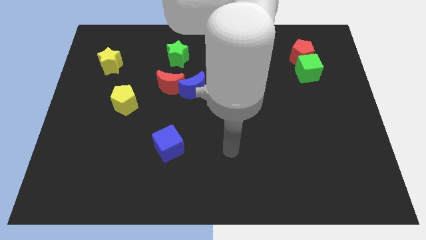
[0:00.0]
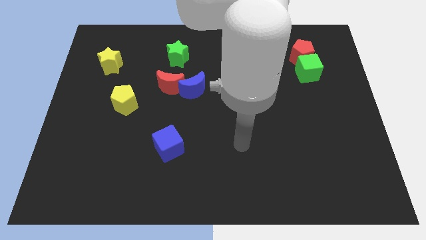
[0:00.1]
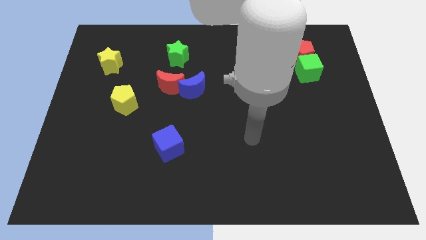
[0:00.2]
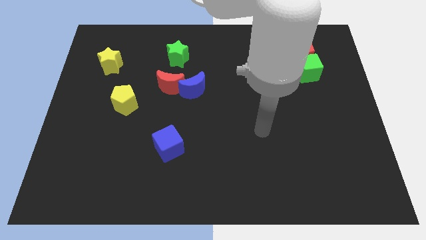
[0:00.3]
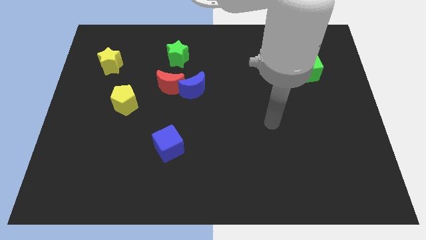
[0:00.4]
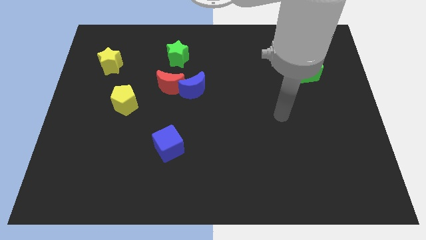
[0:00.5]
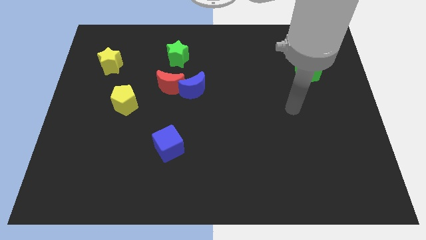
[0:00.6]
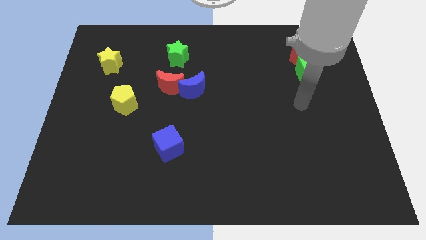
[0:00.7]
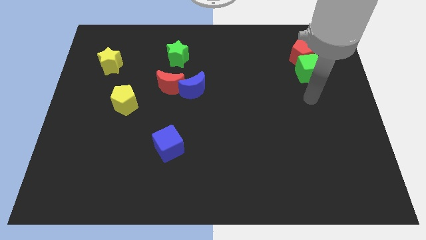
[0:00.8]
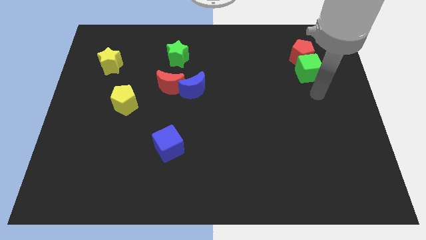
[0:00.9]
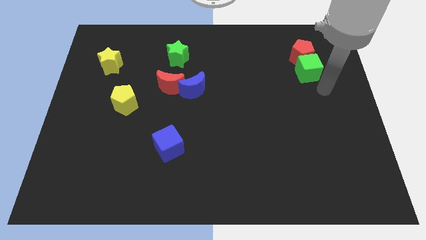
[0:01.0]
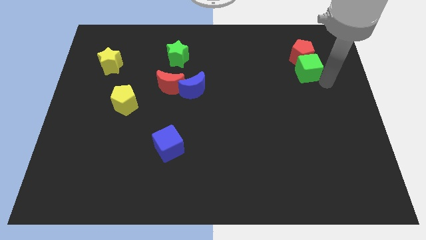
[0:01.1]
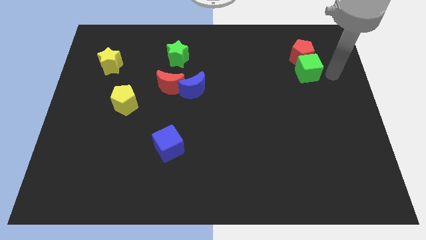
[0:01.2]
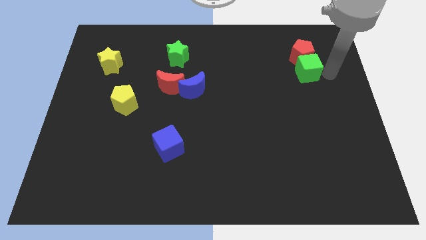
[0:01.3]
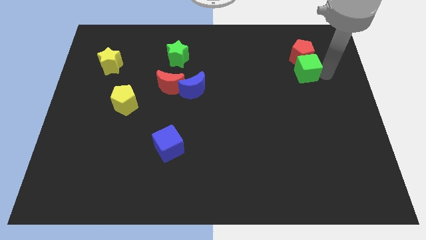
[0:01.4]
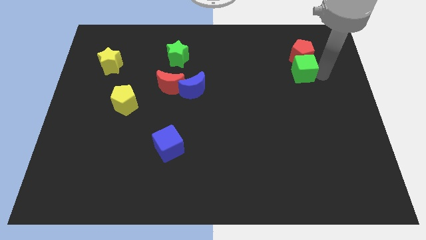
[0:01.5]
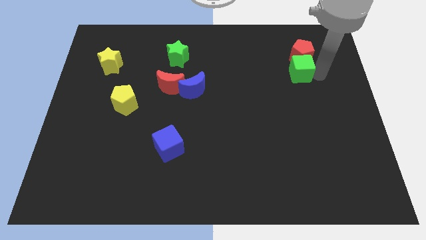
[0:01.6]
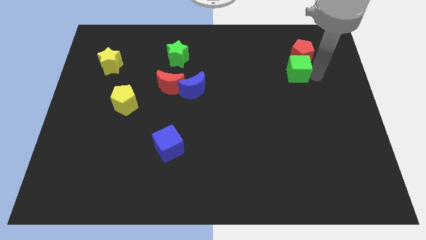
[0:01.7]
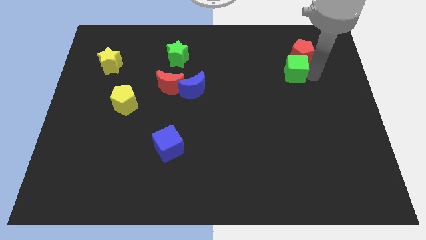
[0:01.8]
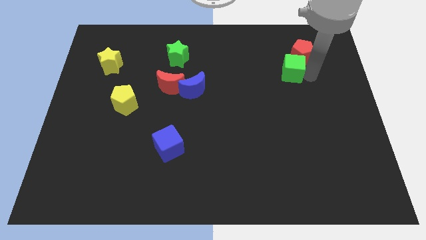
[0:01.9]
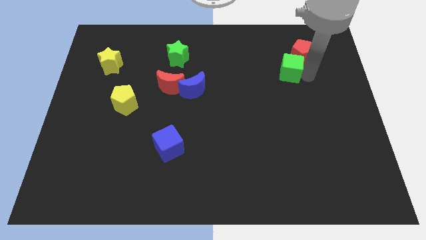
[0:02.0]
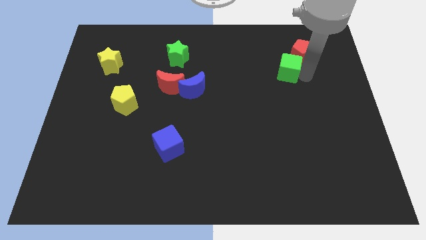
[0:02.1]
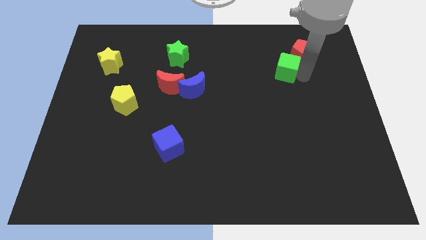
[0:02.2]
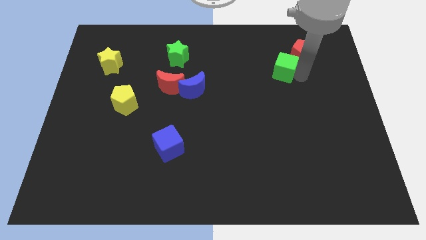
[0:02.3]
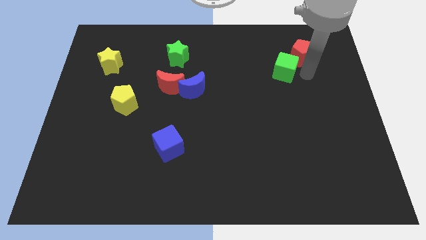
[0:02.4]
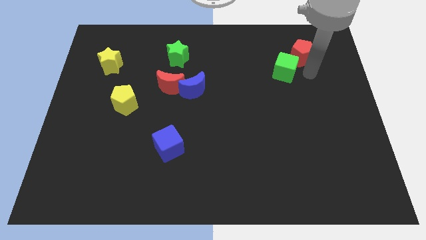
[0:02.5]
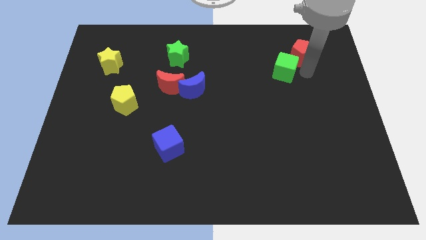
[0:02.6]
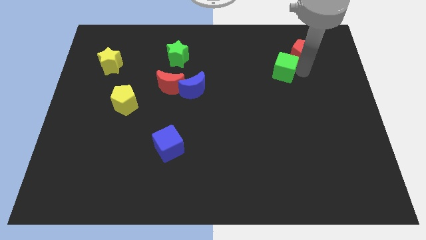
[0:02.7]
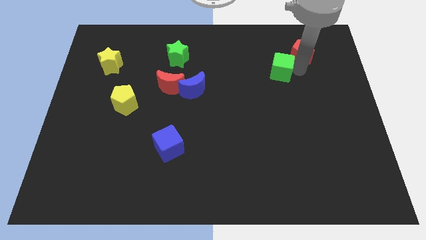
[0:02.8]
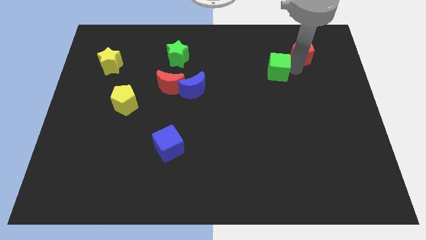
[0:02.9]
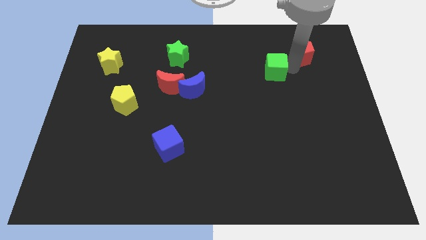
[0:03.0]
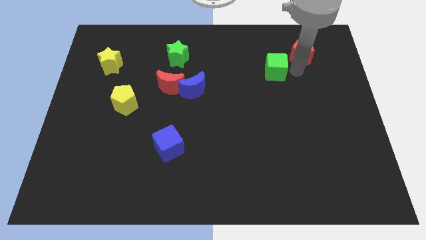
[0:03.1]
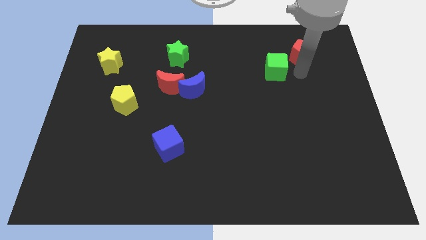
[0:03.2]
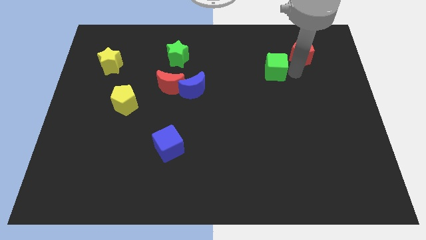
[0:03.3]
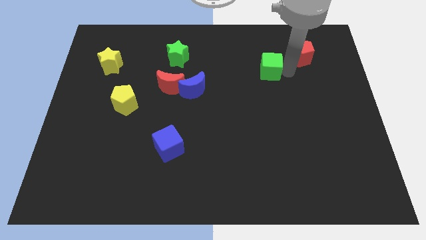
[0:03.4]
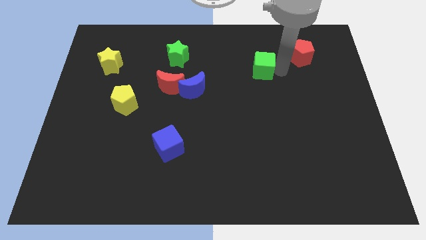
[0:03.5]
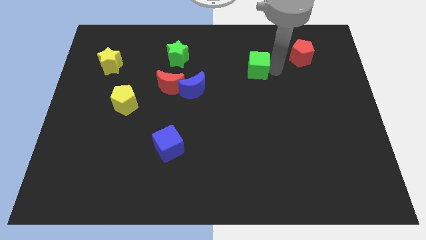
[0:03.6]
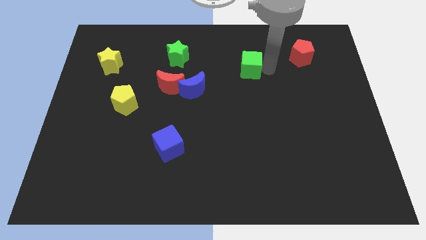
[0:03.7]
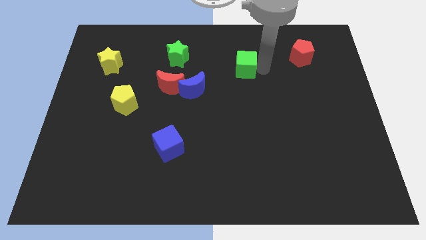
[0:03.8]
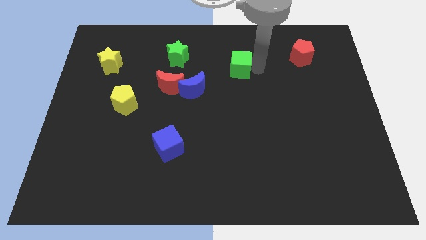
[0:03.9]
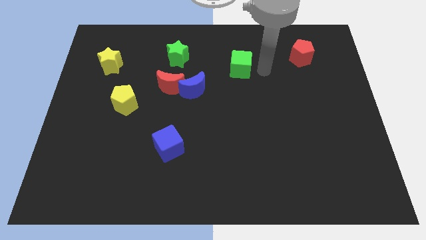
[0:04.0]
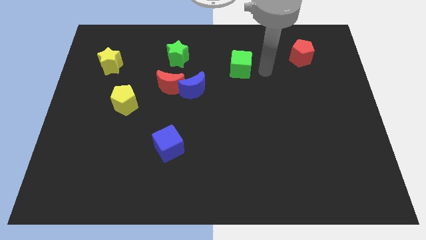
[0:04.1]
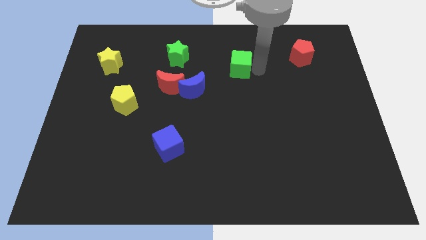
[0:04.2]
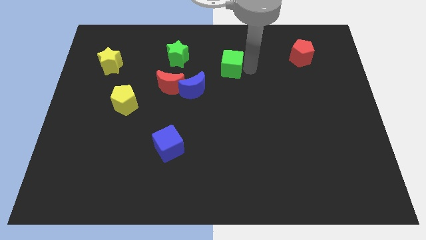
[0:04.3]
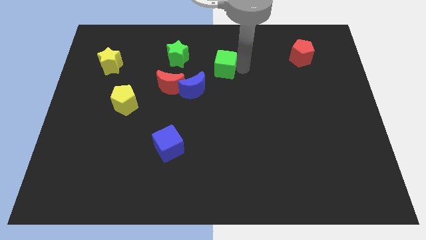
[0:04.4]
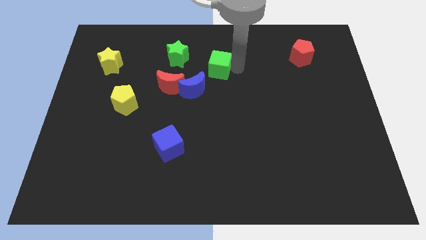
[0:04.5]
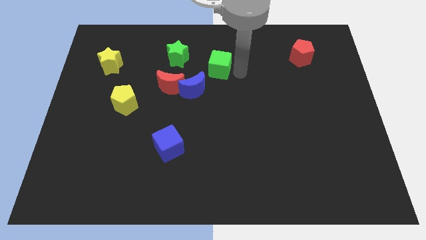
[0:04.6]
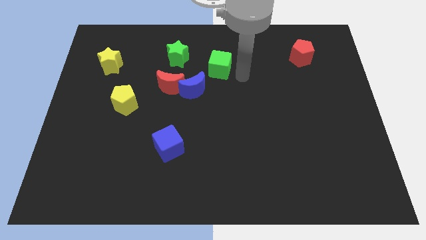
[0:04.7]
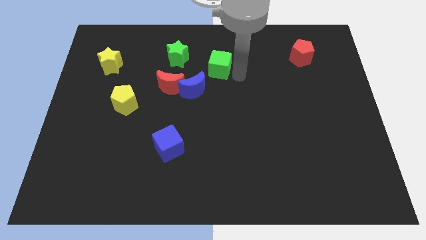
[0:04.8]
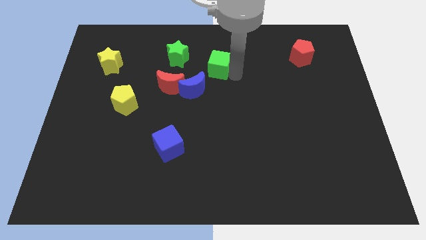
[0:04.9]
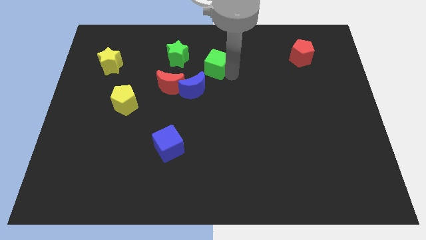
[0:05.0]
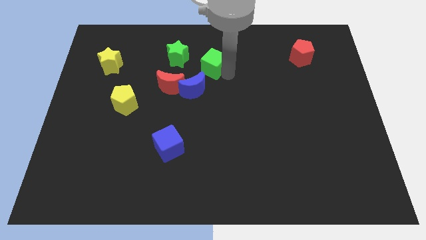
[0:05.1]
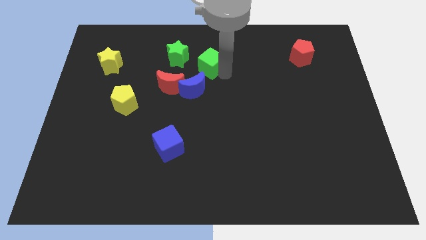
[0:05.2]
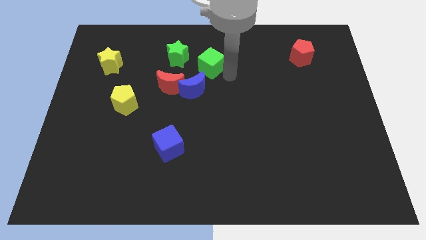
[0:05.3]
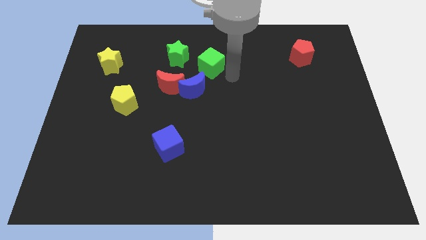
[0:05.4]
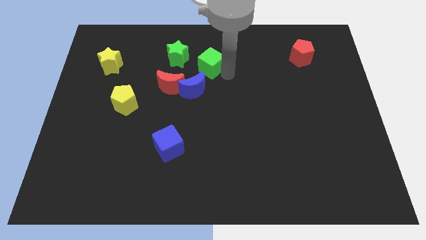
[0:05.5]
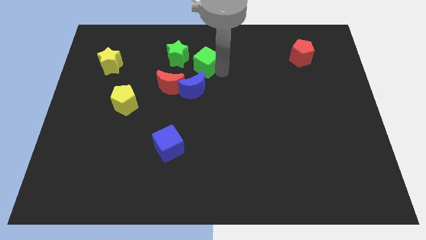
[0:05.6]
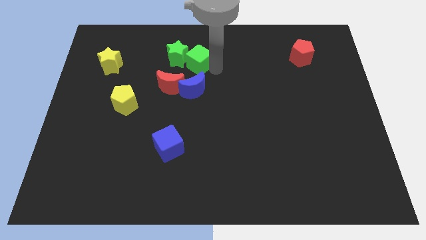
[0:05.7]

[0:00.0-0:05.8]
slide the green cube close to the green star
